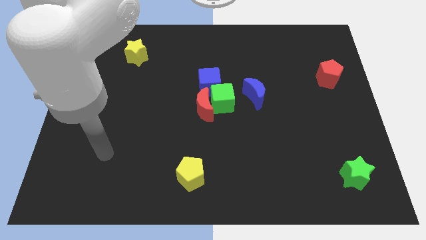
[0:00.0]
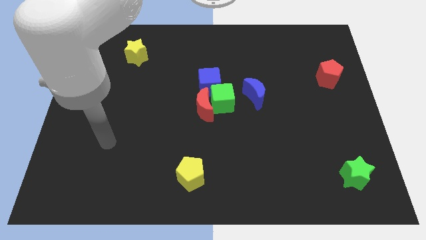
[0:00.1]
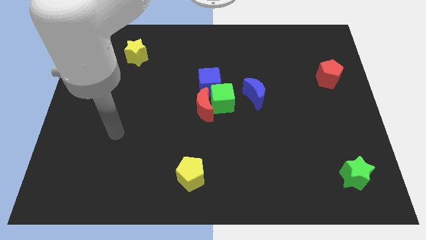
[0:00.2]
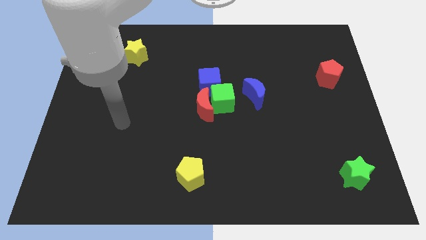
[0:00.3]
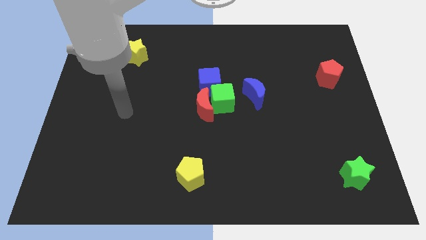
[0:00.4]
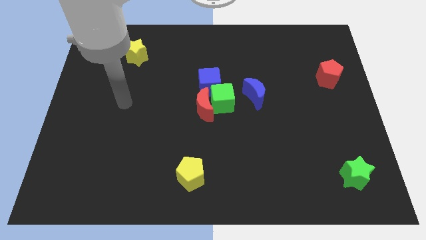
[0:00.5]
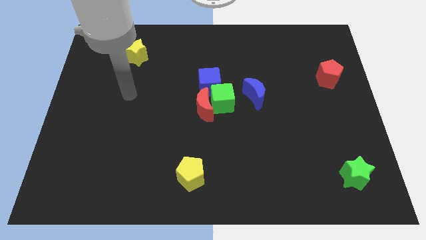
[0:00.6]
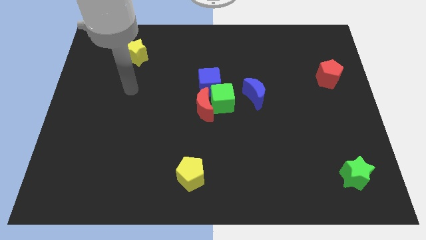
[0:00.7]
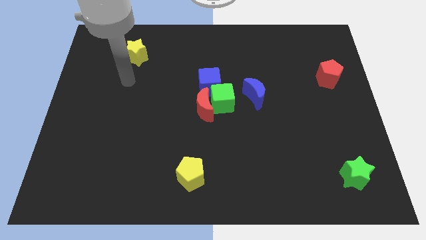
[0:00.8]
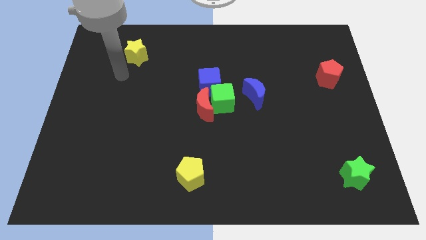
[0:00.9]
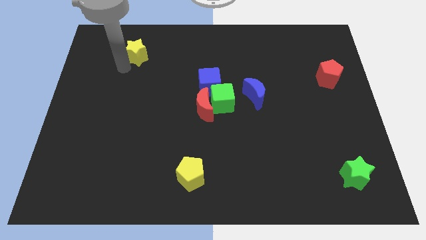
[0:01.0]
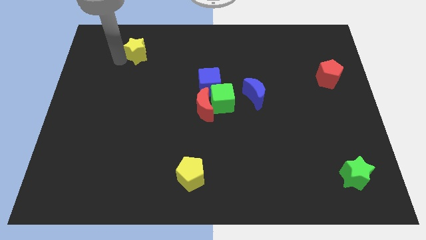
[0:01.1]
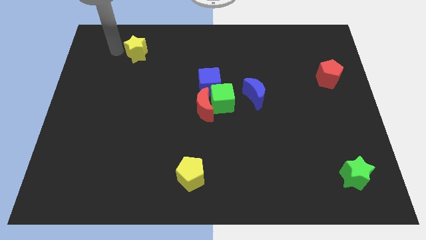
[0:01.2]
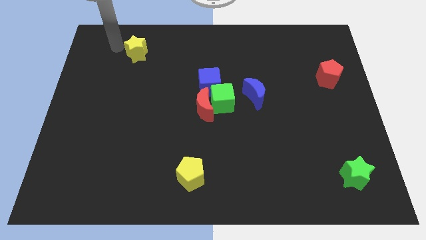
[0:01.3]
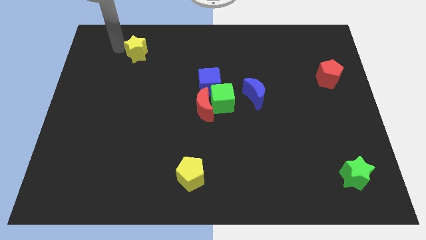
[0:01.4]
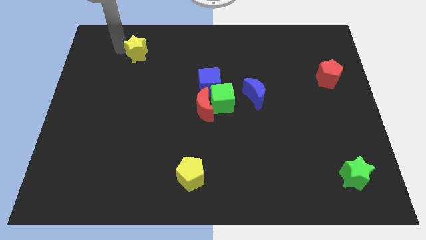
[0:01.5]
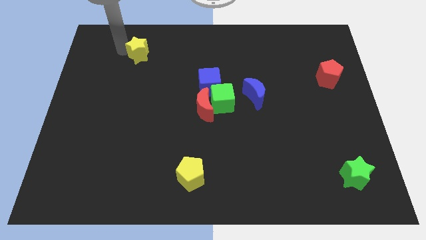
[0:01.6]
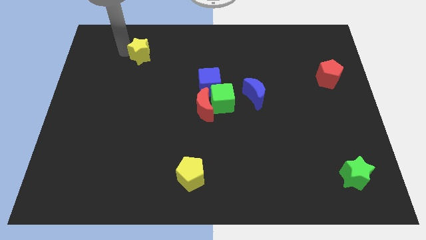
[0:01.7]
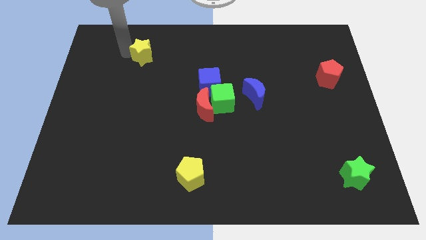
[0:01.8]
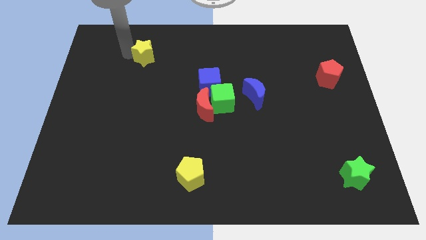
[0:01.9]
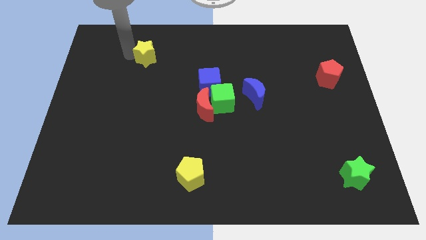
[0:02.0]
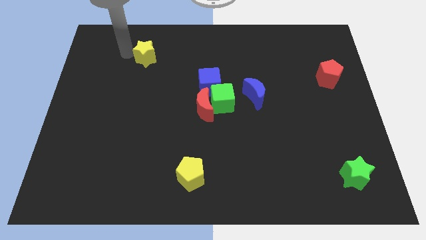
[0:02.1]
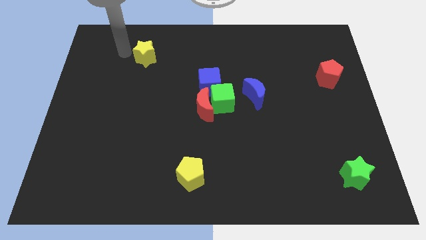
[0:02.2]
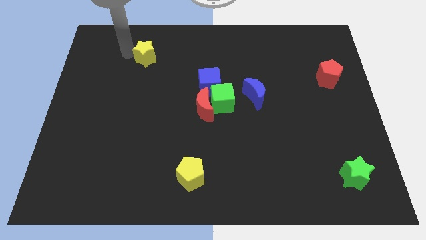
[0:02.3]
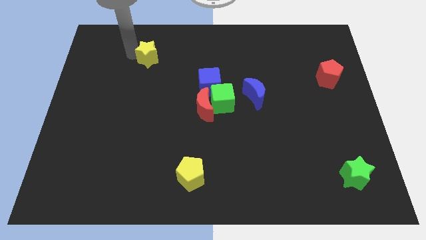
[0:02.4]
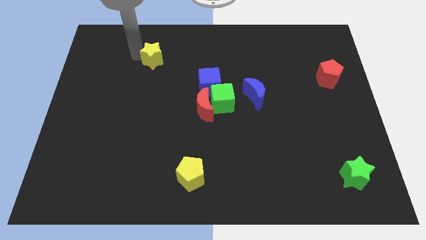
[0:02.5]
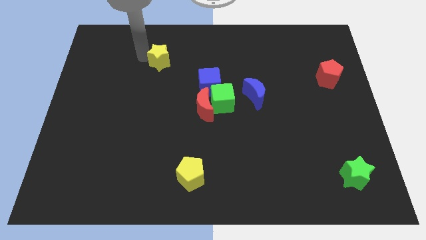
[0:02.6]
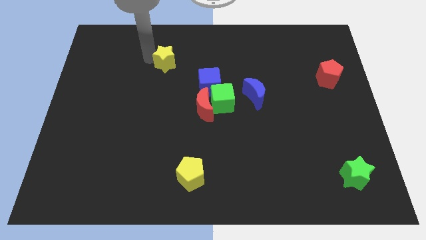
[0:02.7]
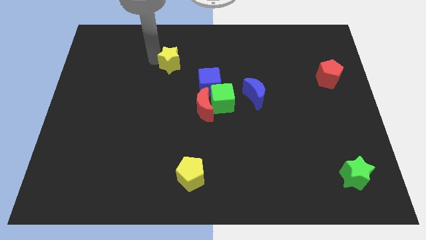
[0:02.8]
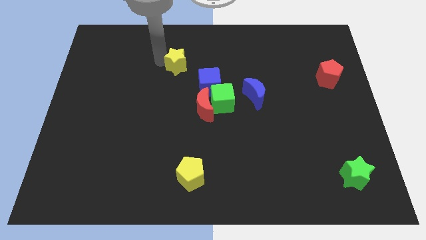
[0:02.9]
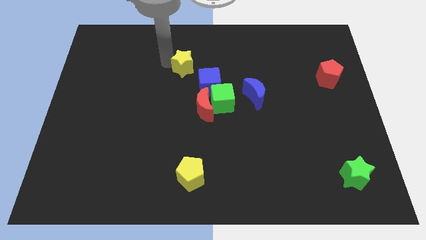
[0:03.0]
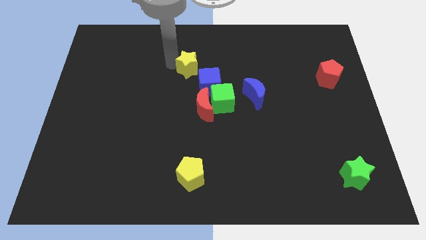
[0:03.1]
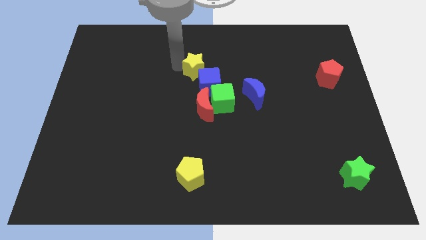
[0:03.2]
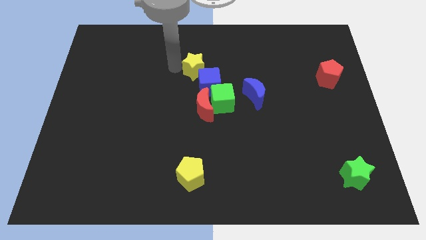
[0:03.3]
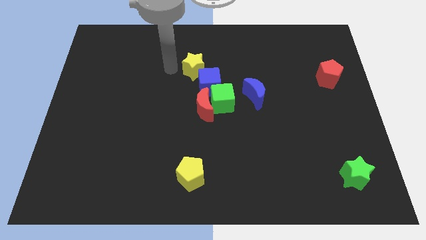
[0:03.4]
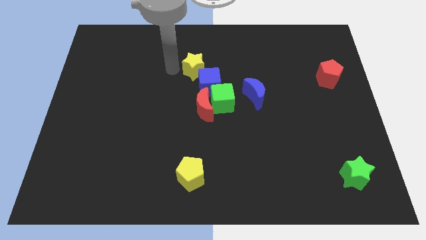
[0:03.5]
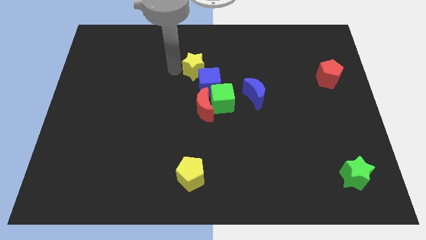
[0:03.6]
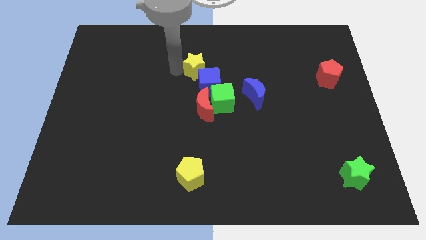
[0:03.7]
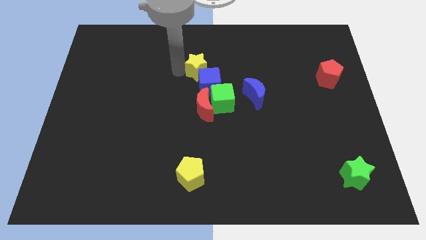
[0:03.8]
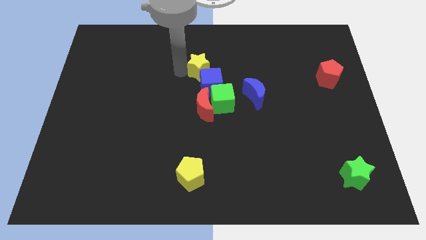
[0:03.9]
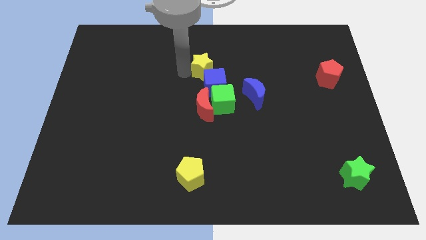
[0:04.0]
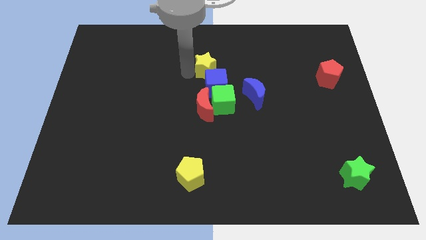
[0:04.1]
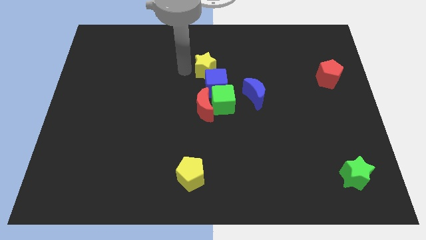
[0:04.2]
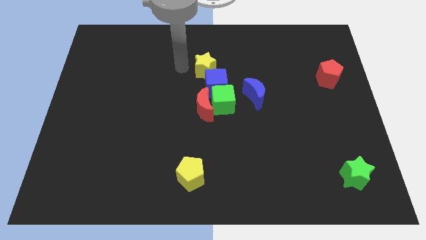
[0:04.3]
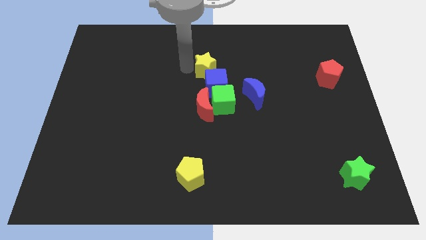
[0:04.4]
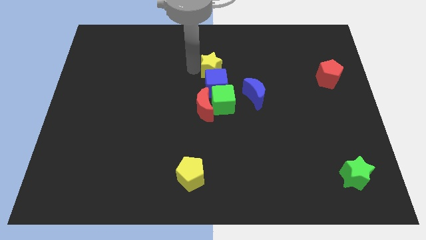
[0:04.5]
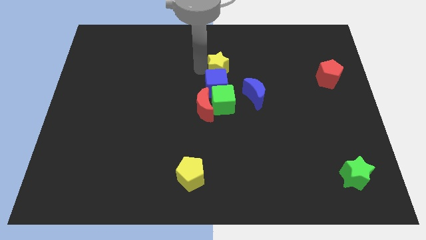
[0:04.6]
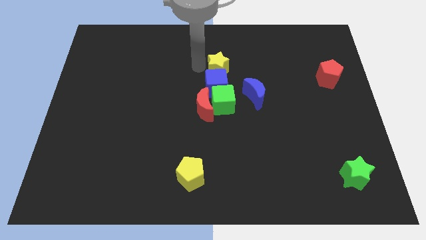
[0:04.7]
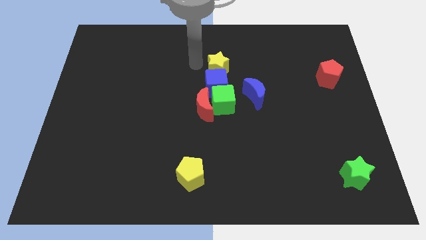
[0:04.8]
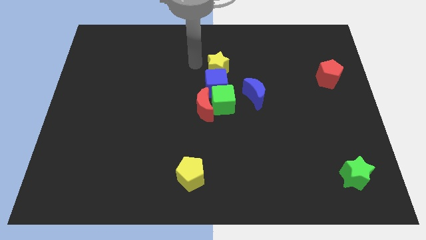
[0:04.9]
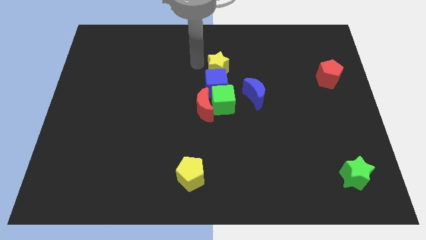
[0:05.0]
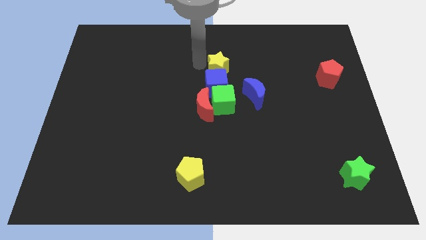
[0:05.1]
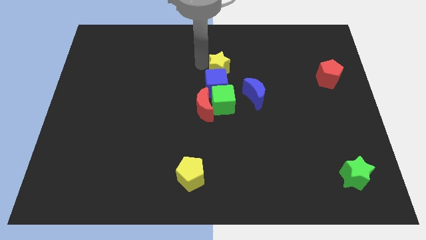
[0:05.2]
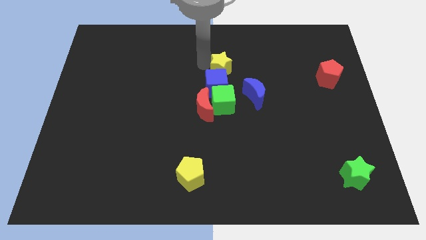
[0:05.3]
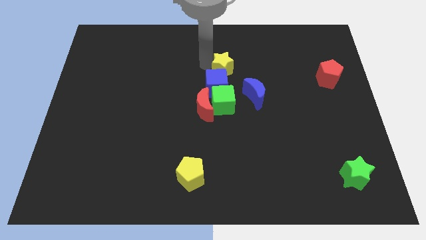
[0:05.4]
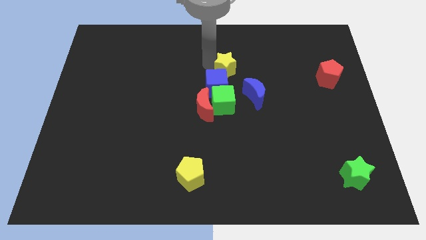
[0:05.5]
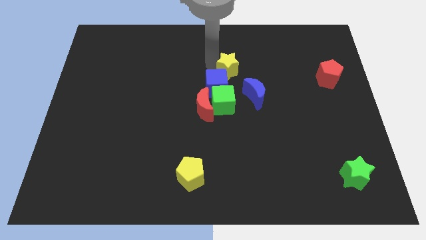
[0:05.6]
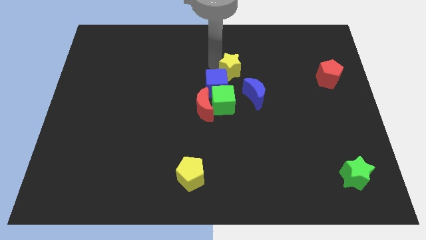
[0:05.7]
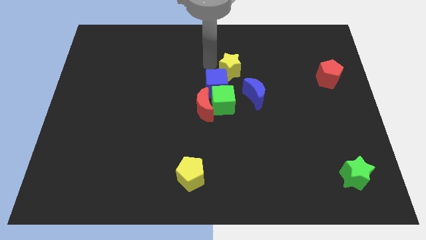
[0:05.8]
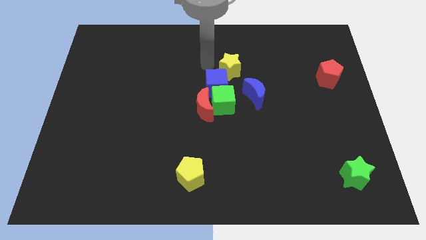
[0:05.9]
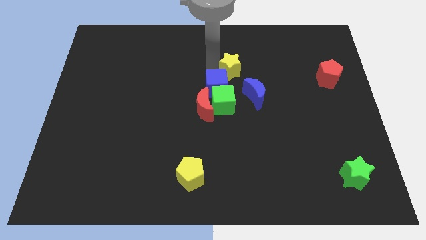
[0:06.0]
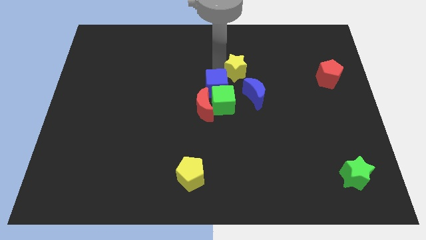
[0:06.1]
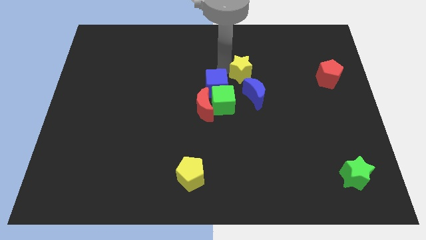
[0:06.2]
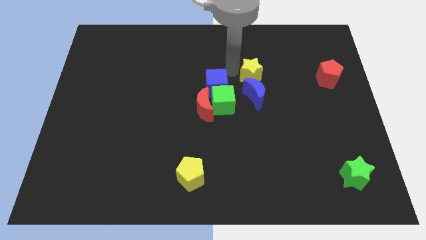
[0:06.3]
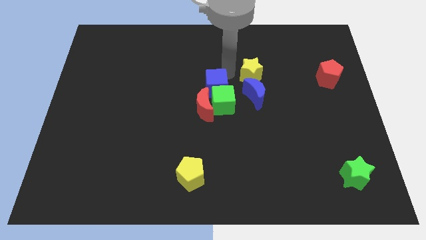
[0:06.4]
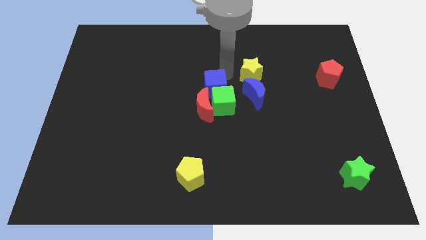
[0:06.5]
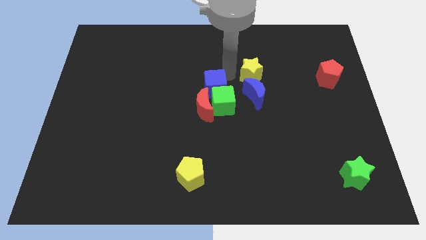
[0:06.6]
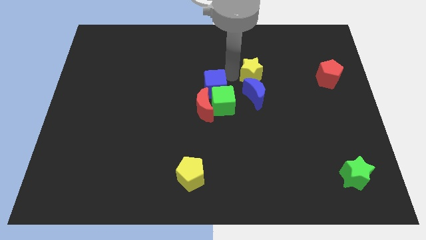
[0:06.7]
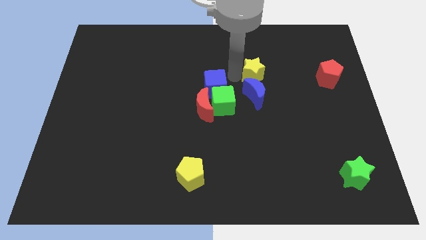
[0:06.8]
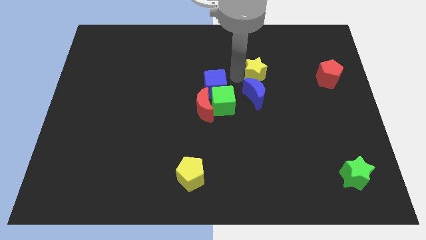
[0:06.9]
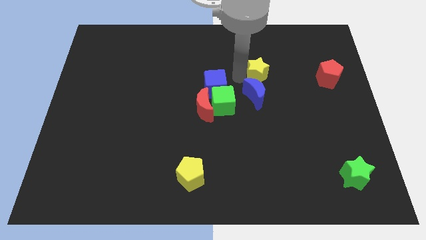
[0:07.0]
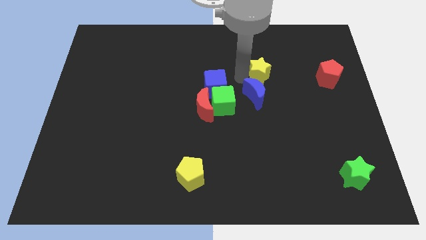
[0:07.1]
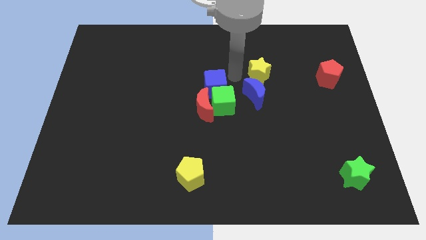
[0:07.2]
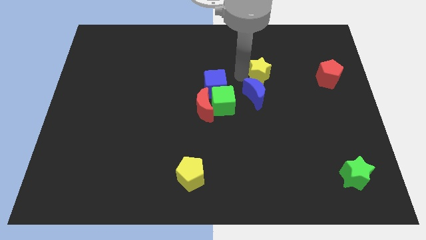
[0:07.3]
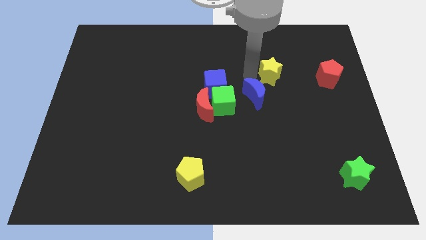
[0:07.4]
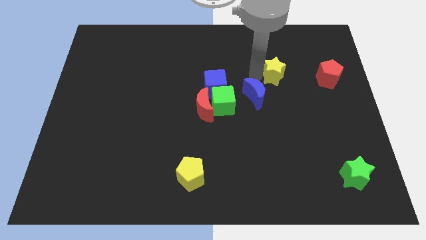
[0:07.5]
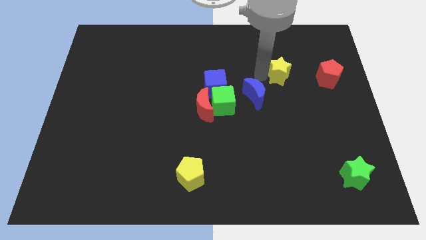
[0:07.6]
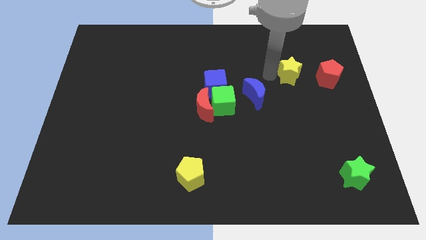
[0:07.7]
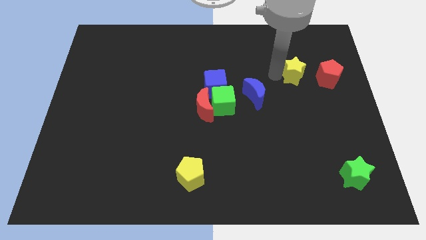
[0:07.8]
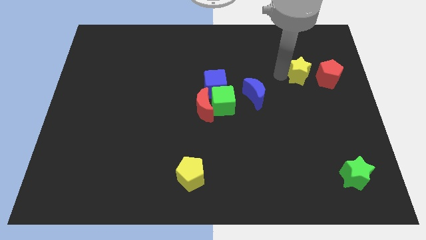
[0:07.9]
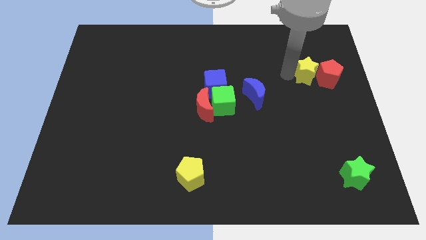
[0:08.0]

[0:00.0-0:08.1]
push the yellow star towards the red pentagon
